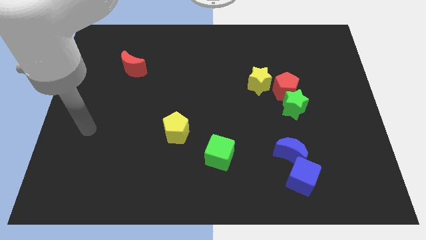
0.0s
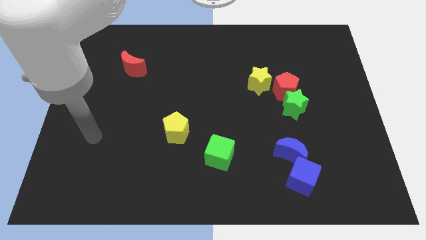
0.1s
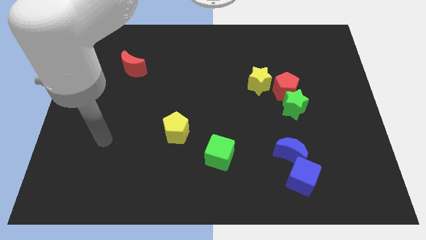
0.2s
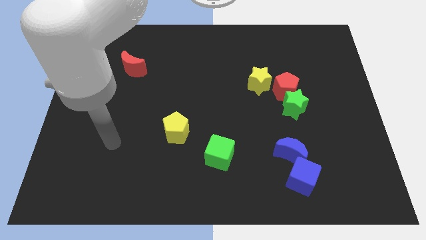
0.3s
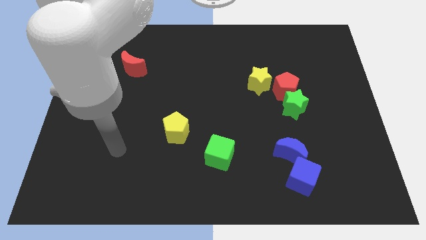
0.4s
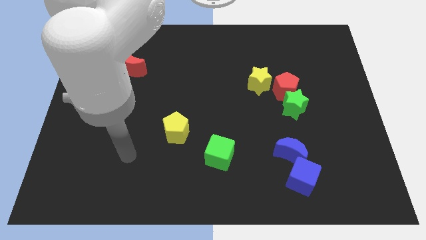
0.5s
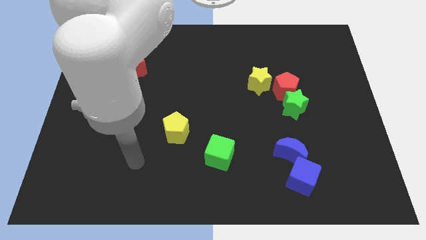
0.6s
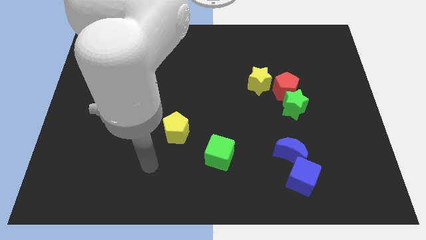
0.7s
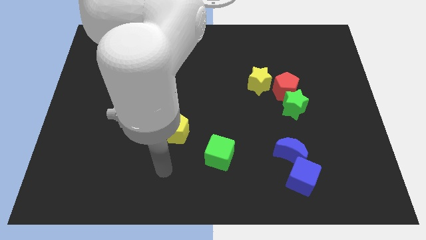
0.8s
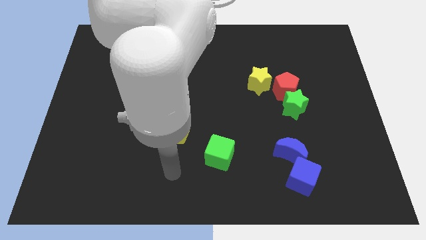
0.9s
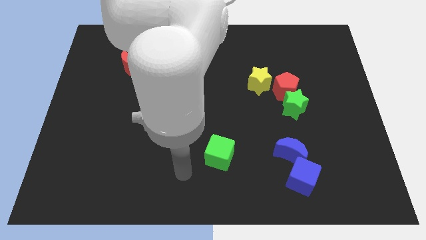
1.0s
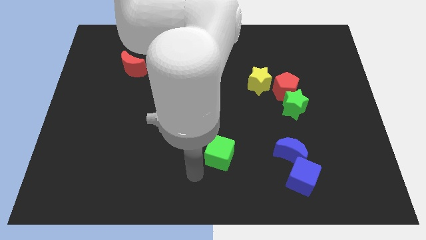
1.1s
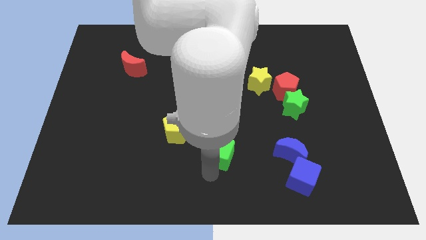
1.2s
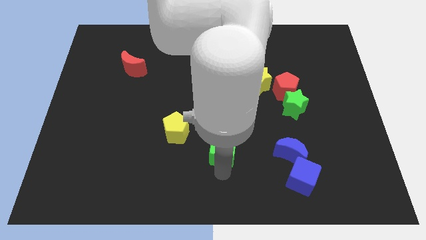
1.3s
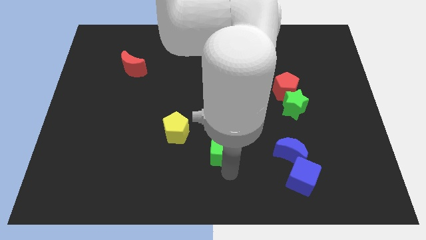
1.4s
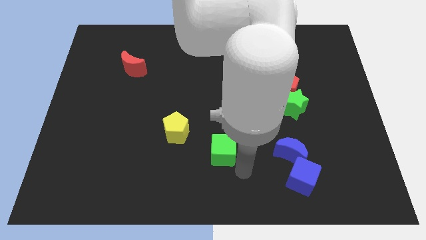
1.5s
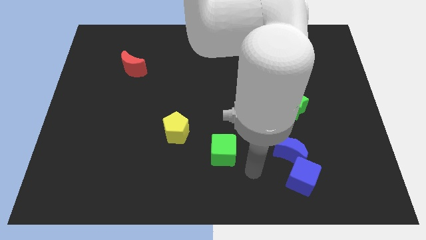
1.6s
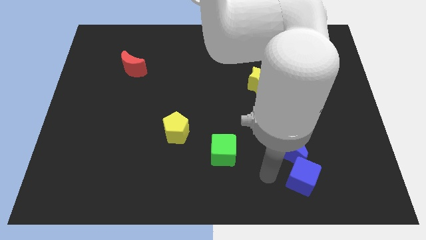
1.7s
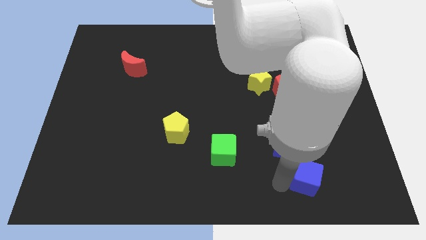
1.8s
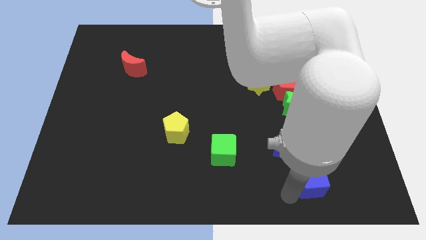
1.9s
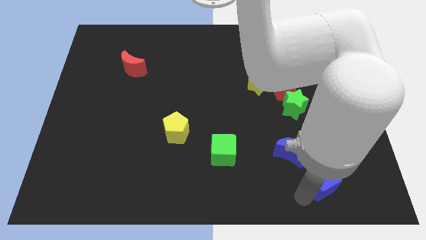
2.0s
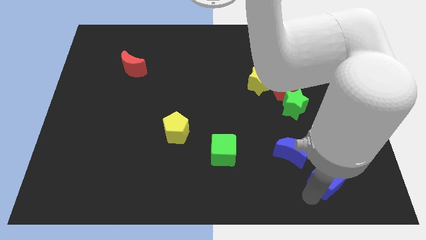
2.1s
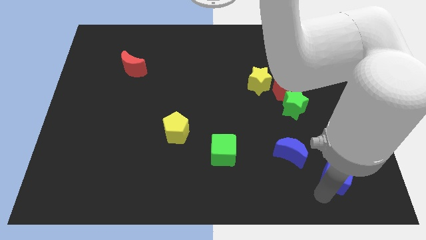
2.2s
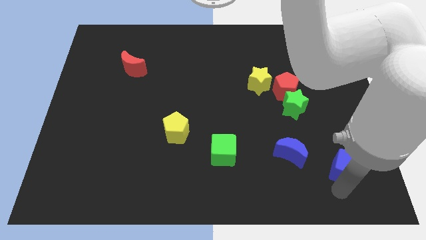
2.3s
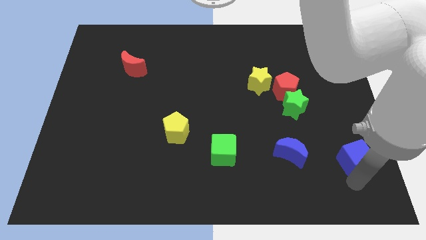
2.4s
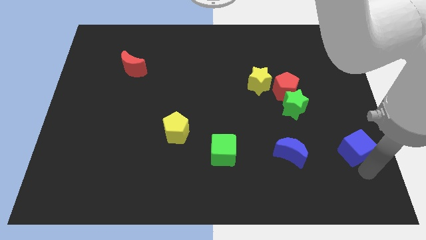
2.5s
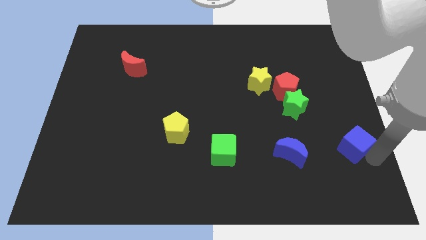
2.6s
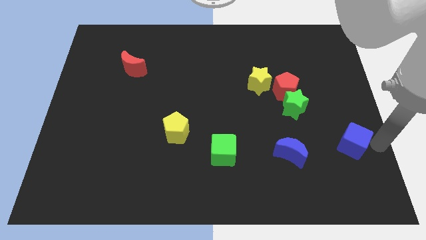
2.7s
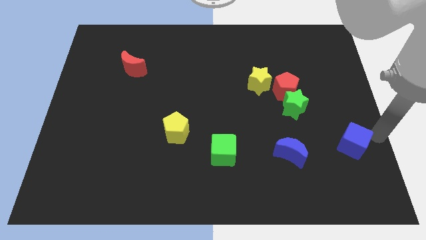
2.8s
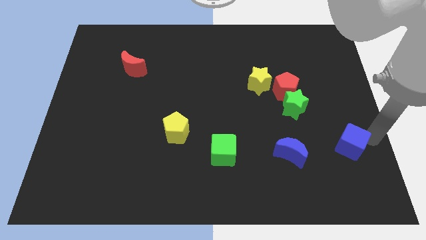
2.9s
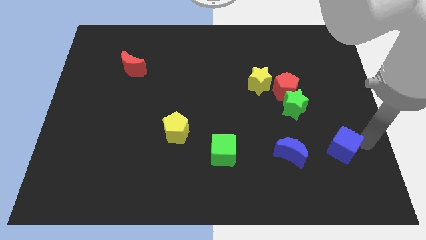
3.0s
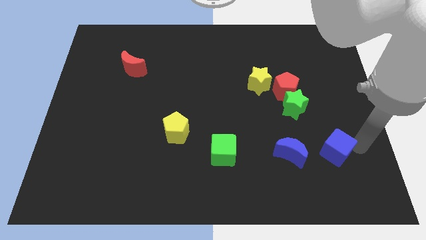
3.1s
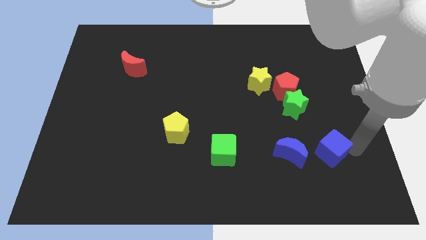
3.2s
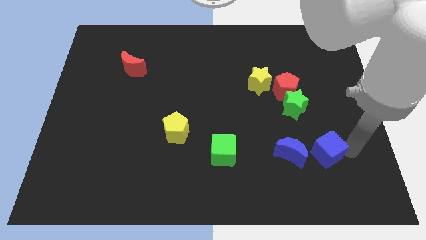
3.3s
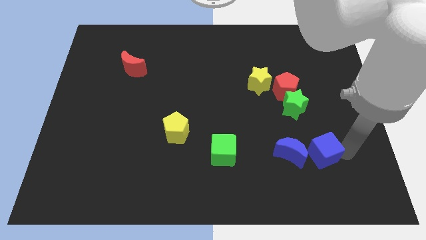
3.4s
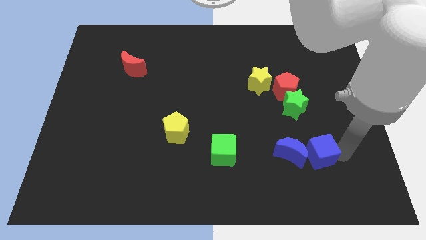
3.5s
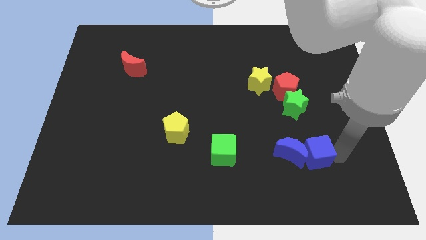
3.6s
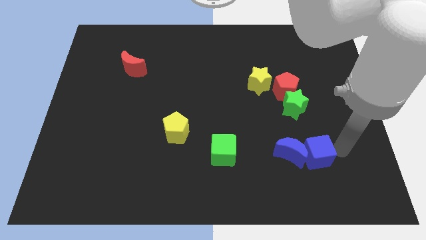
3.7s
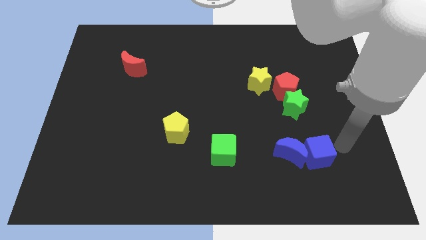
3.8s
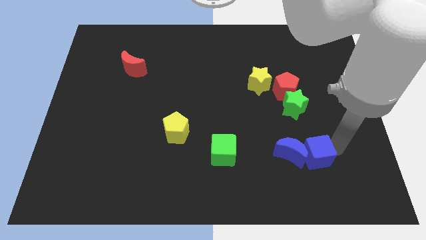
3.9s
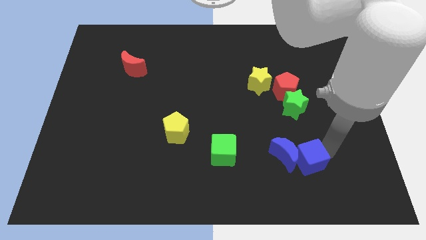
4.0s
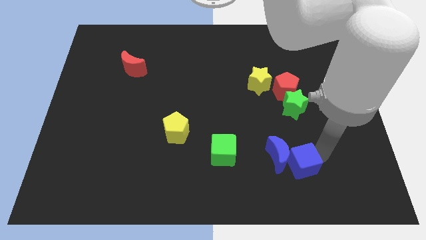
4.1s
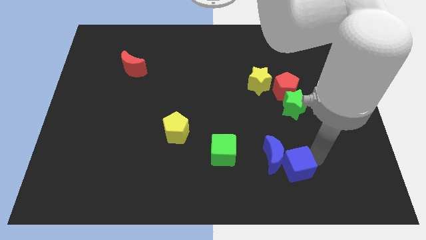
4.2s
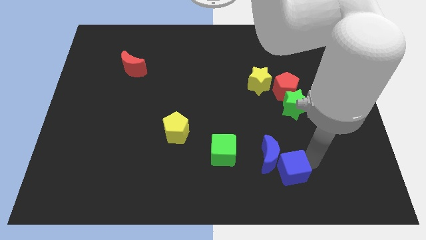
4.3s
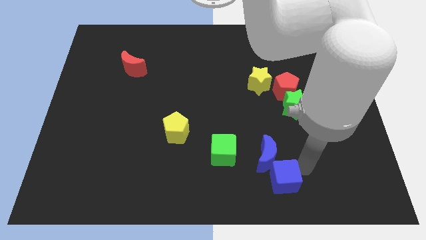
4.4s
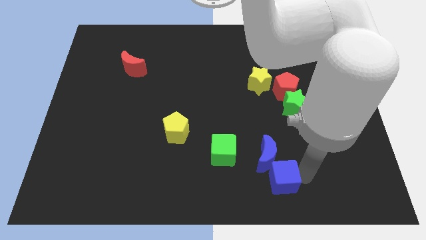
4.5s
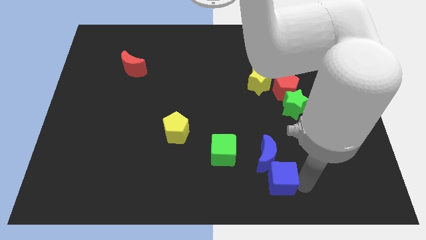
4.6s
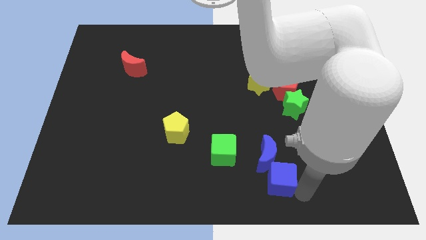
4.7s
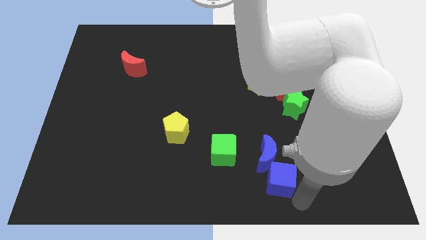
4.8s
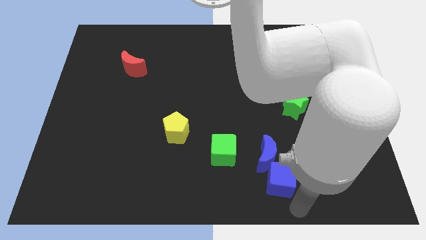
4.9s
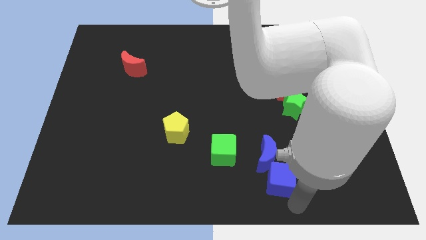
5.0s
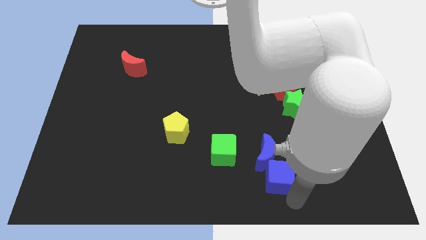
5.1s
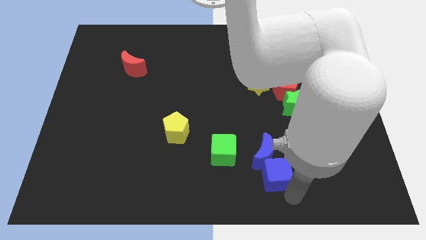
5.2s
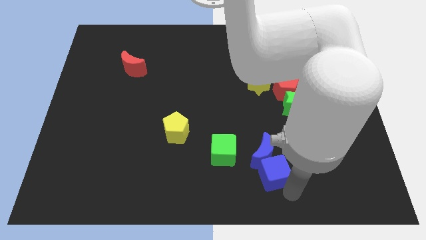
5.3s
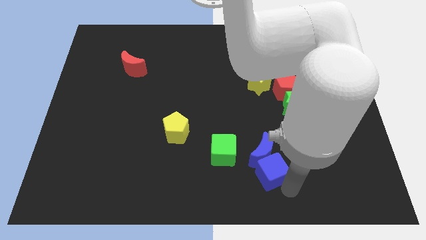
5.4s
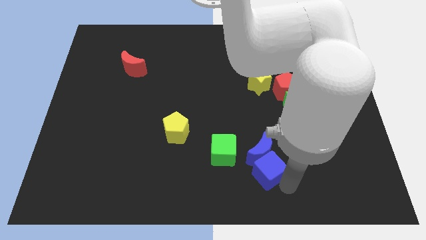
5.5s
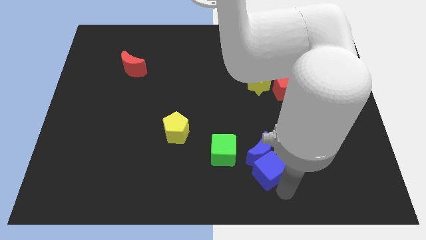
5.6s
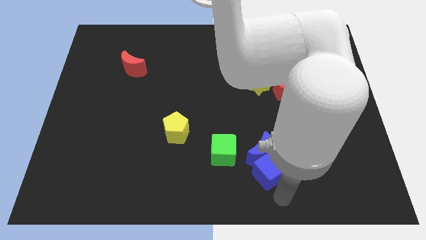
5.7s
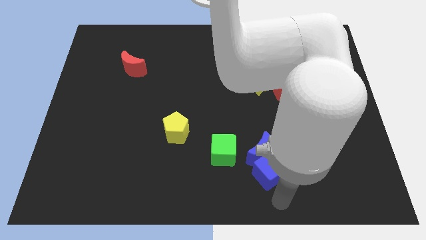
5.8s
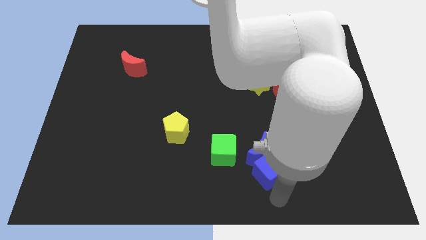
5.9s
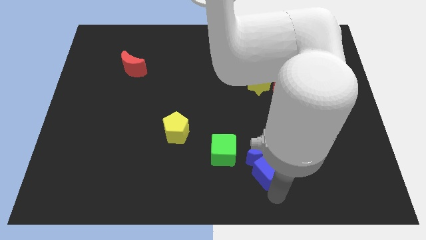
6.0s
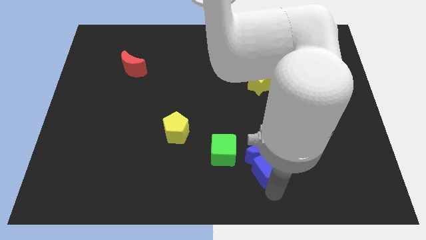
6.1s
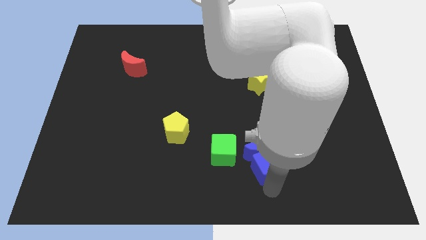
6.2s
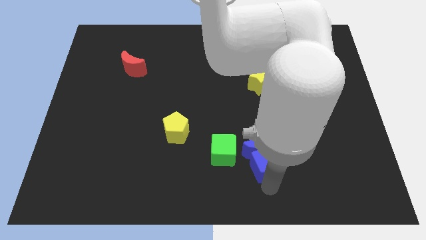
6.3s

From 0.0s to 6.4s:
slightly slide the blue cube upwards and to the left

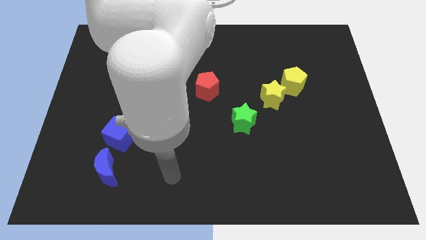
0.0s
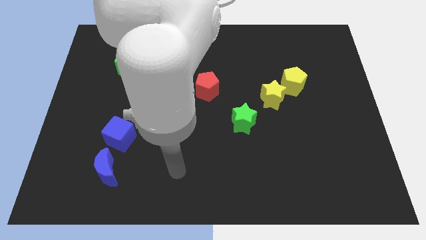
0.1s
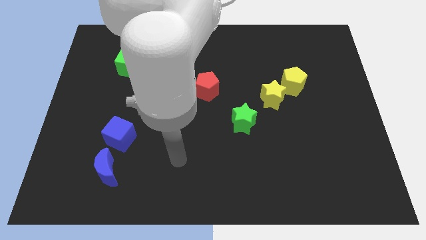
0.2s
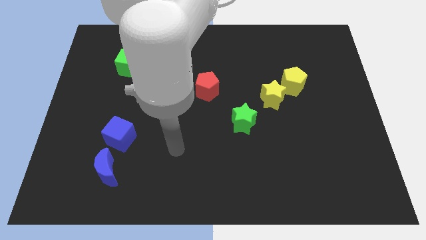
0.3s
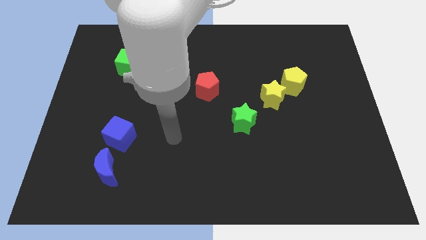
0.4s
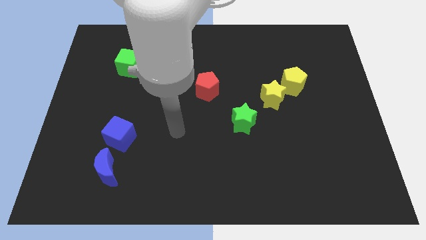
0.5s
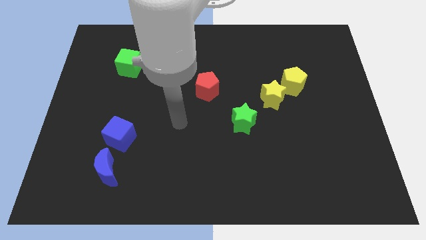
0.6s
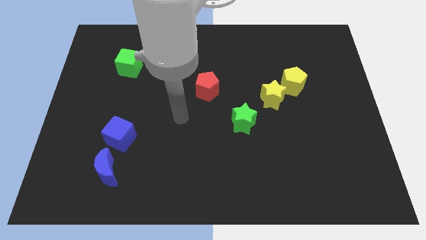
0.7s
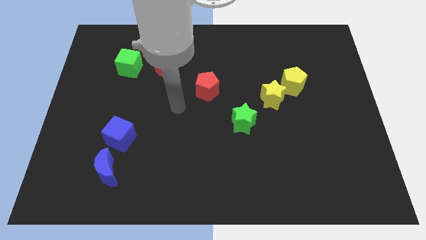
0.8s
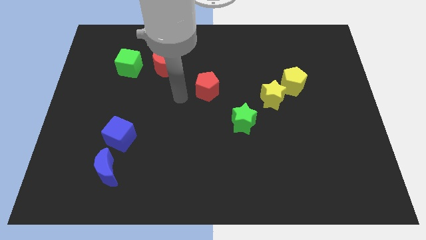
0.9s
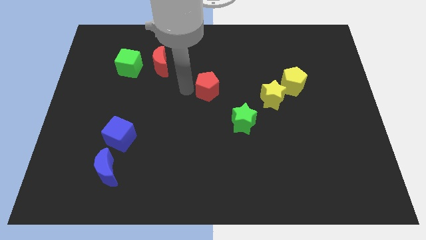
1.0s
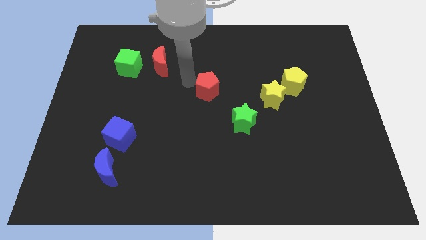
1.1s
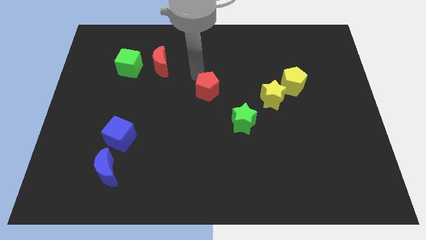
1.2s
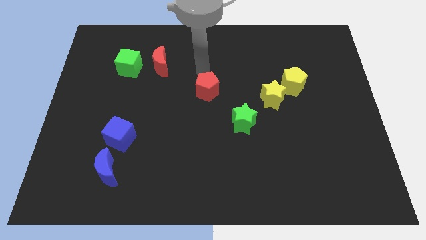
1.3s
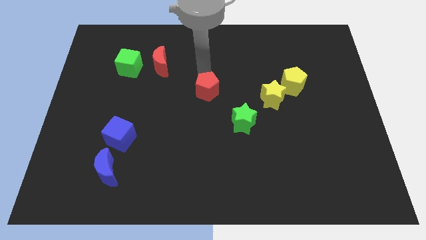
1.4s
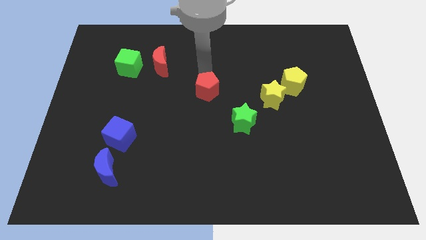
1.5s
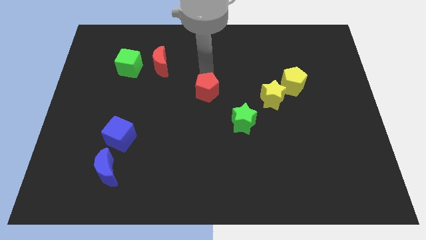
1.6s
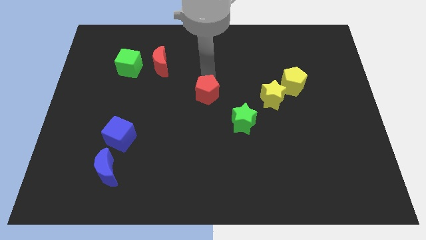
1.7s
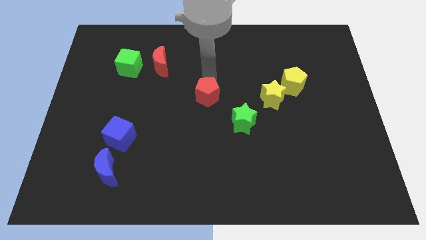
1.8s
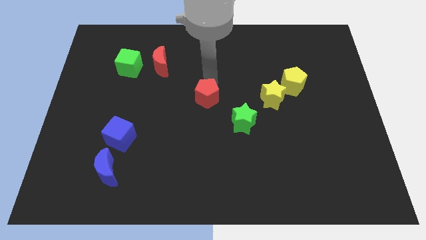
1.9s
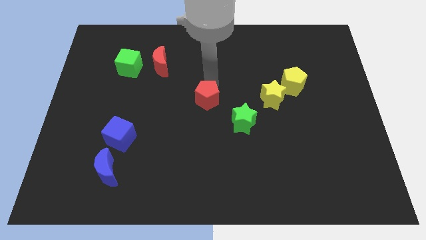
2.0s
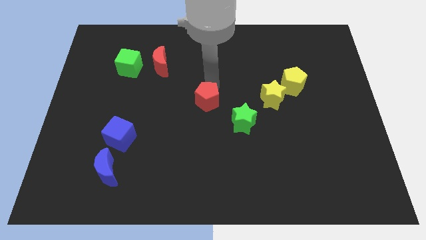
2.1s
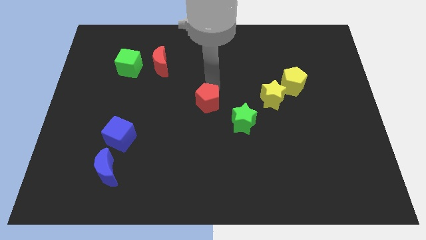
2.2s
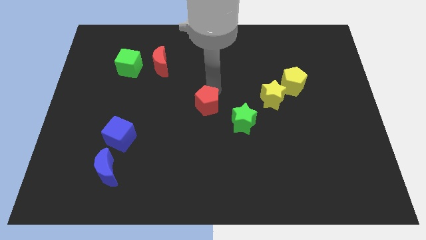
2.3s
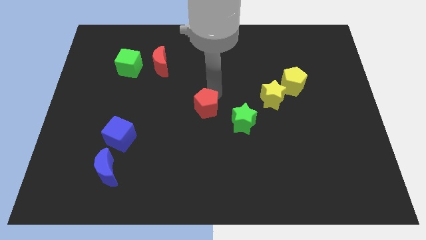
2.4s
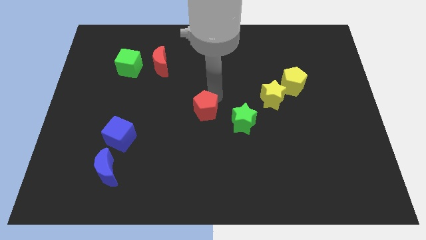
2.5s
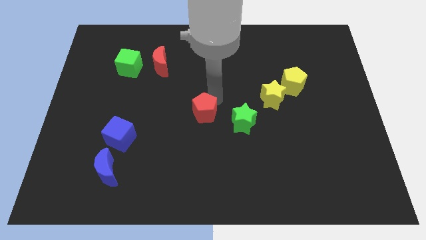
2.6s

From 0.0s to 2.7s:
push the red pentagon down slightly
